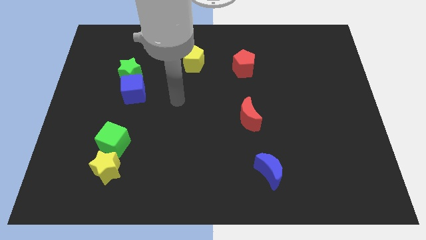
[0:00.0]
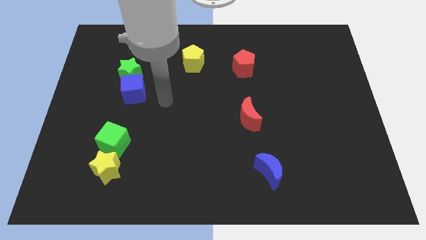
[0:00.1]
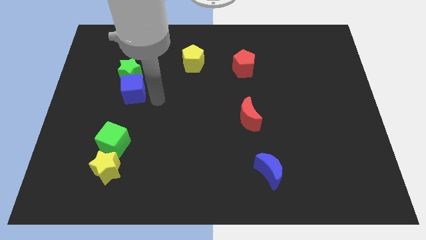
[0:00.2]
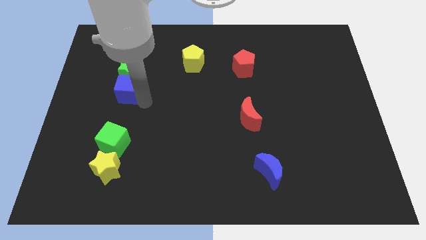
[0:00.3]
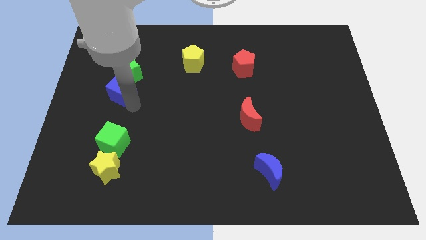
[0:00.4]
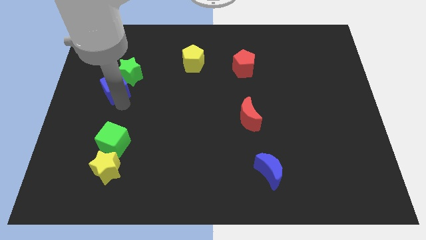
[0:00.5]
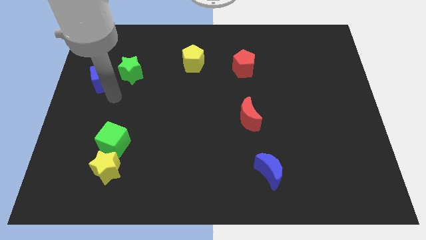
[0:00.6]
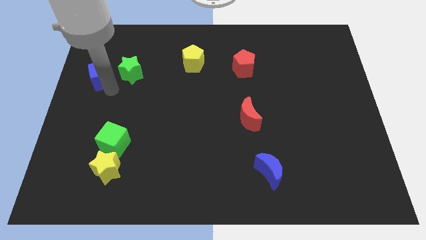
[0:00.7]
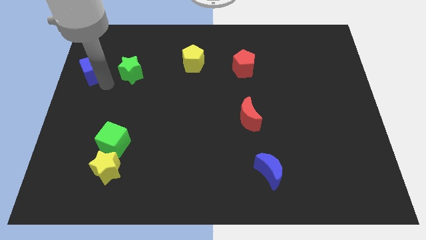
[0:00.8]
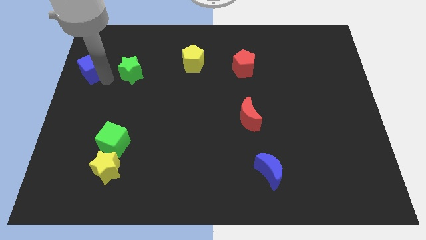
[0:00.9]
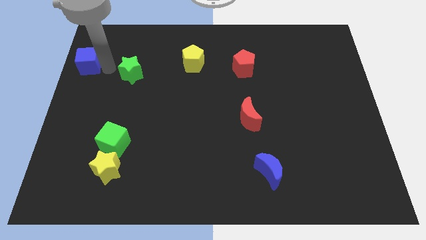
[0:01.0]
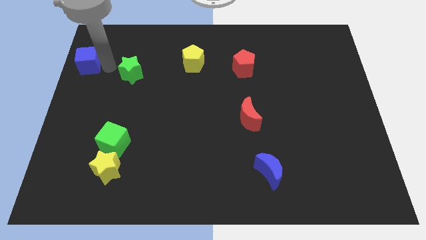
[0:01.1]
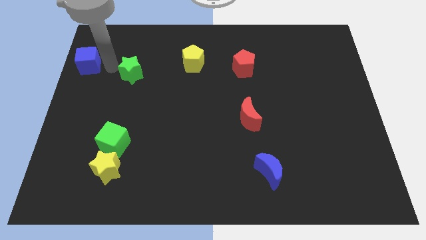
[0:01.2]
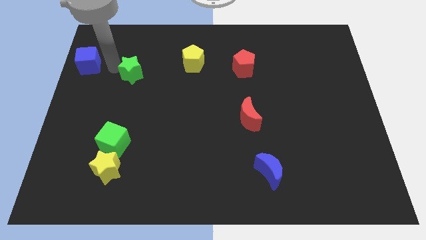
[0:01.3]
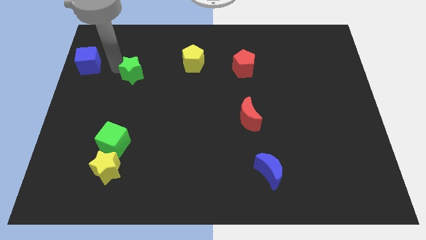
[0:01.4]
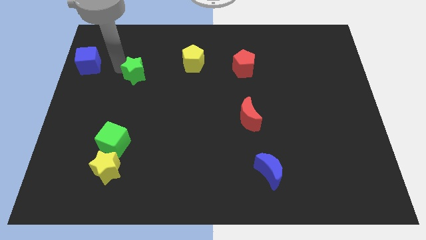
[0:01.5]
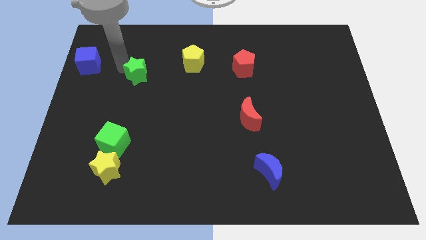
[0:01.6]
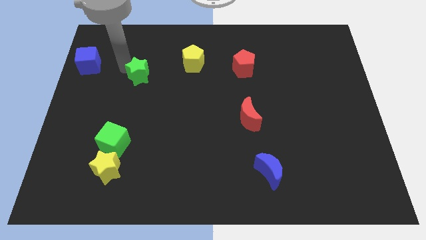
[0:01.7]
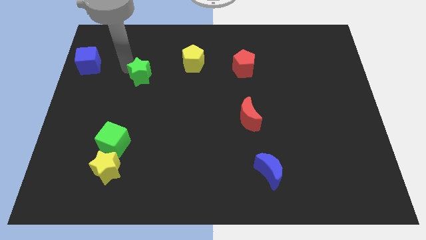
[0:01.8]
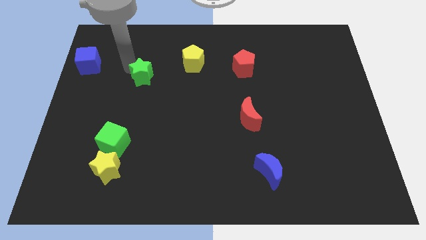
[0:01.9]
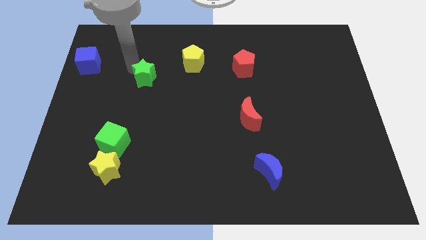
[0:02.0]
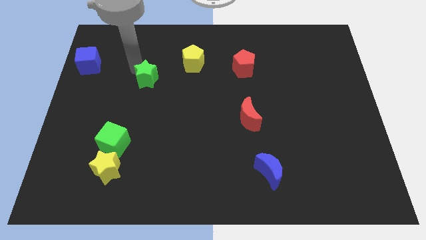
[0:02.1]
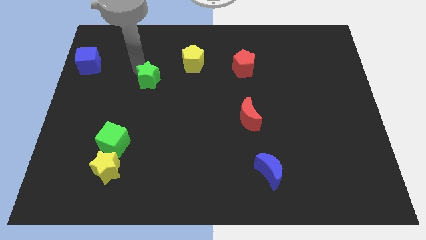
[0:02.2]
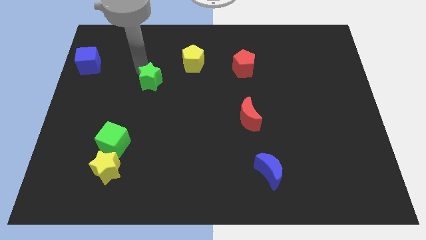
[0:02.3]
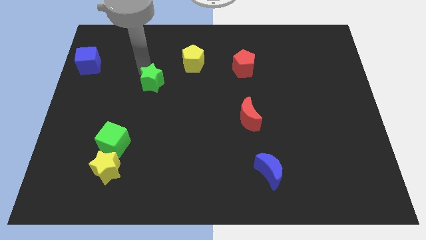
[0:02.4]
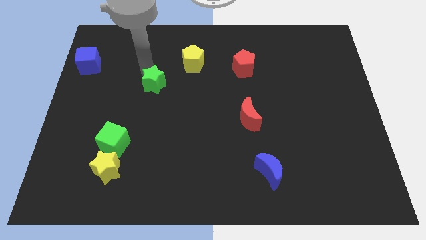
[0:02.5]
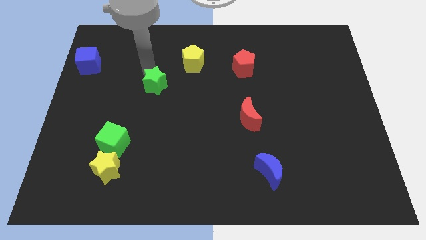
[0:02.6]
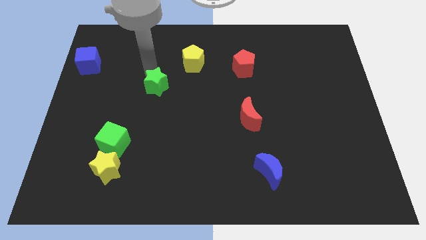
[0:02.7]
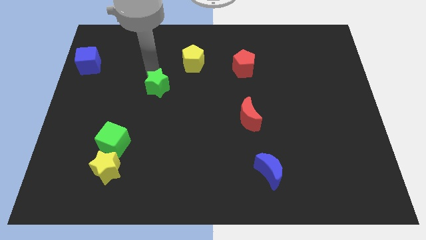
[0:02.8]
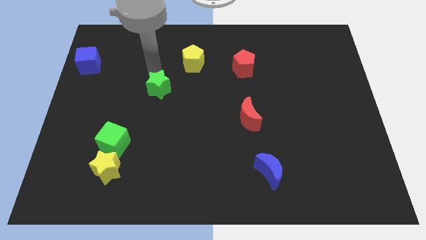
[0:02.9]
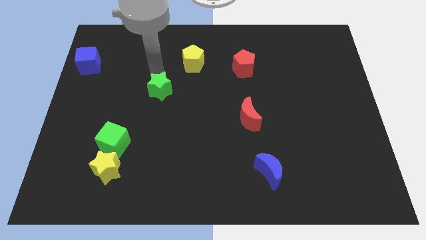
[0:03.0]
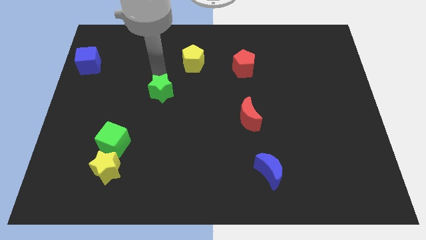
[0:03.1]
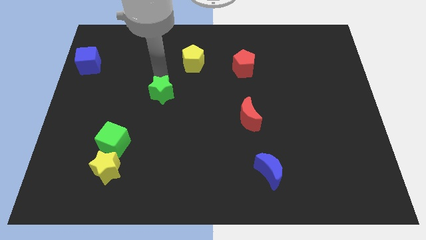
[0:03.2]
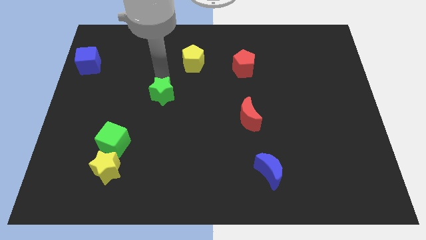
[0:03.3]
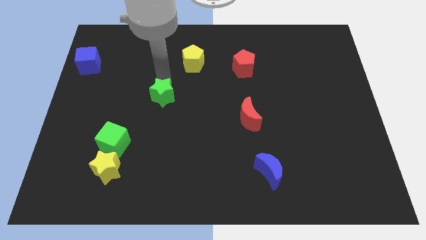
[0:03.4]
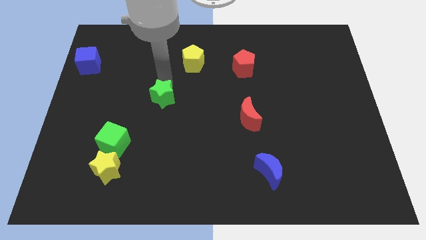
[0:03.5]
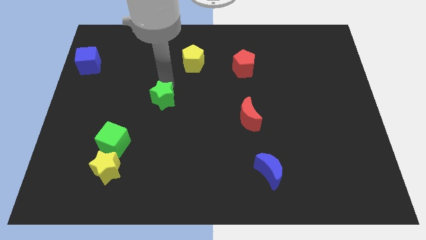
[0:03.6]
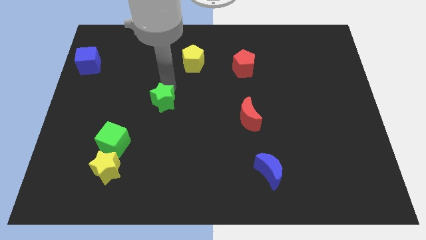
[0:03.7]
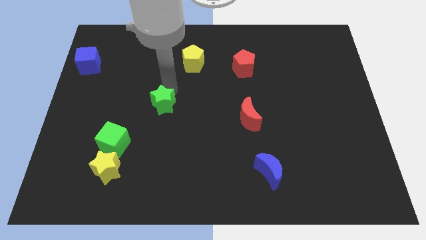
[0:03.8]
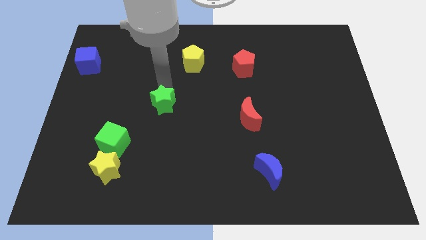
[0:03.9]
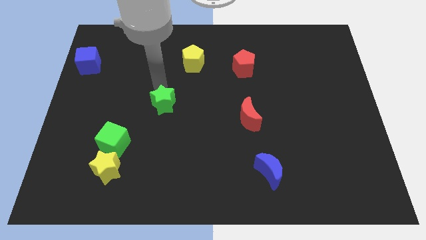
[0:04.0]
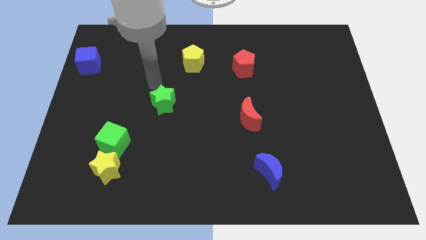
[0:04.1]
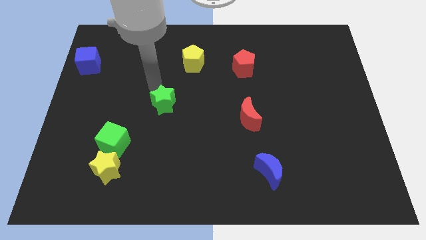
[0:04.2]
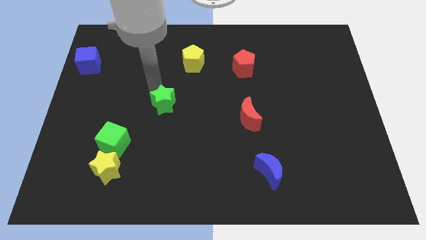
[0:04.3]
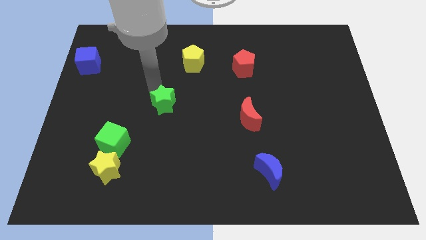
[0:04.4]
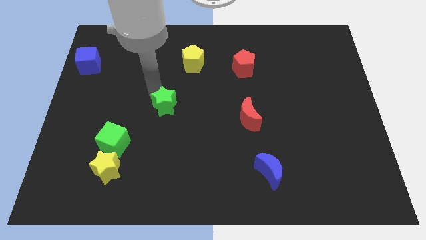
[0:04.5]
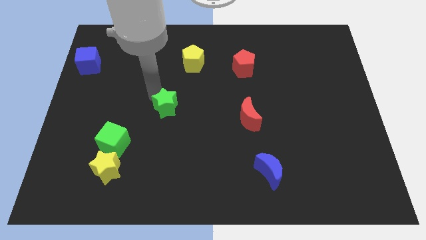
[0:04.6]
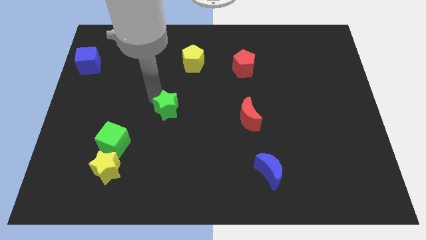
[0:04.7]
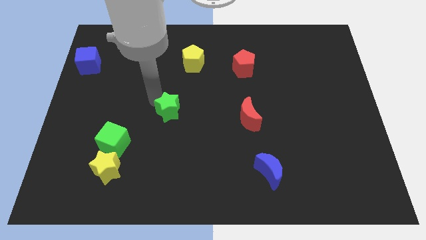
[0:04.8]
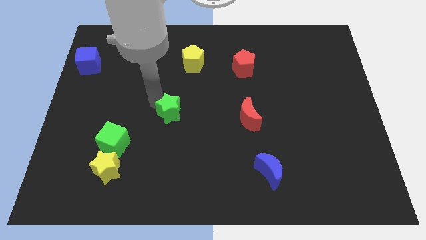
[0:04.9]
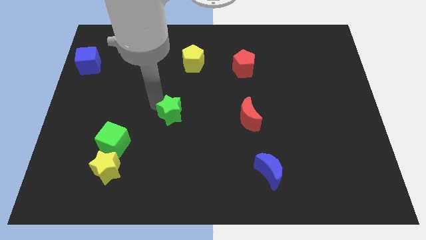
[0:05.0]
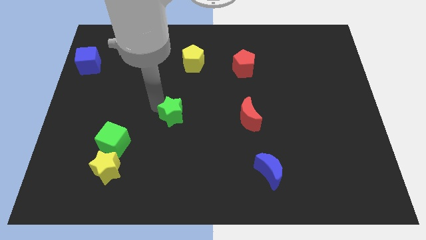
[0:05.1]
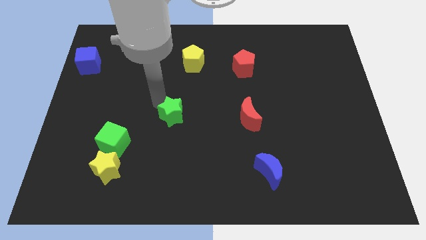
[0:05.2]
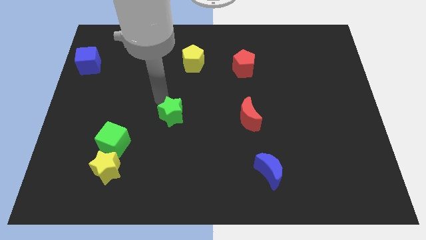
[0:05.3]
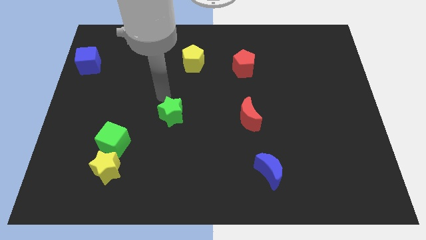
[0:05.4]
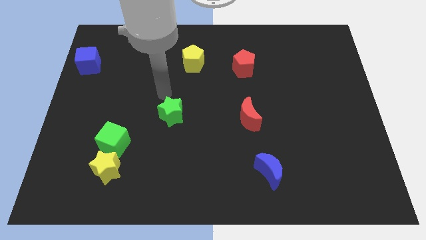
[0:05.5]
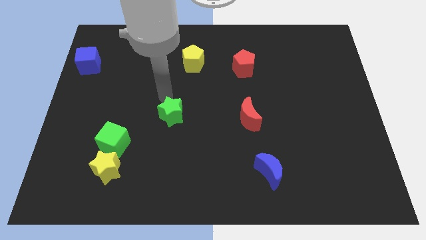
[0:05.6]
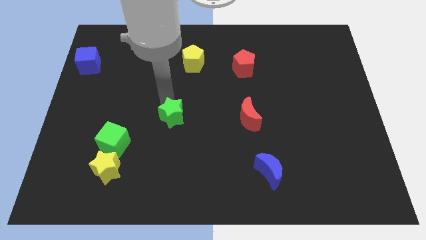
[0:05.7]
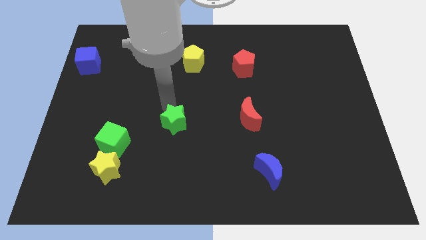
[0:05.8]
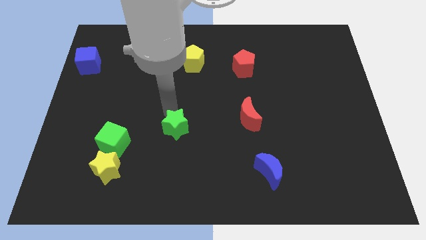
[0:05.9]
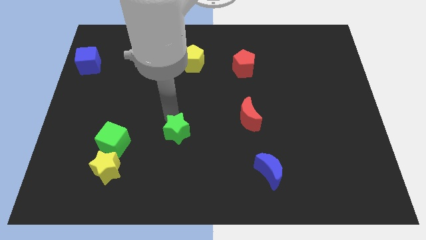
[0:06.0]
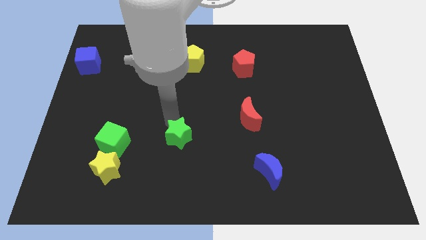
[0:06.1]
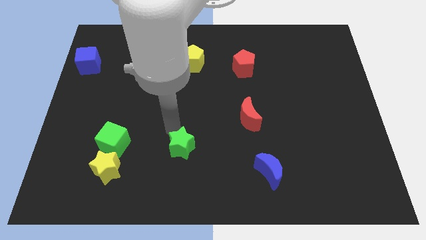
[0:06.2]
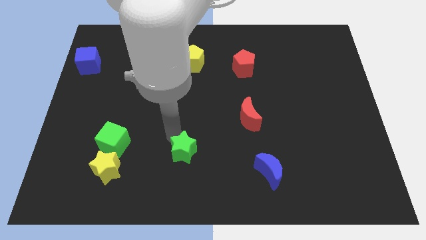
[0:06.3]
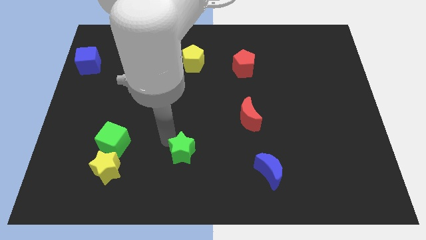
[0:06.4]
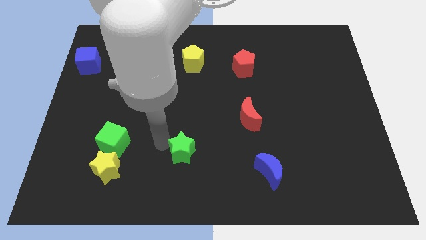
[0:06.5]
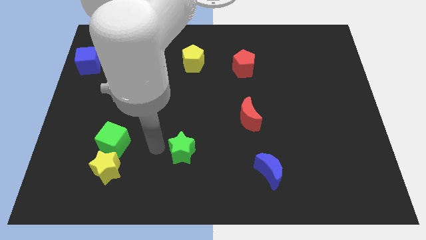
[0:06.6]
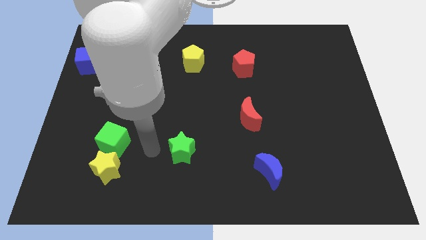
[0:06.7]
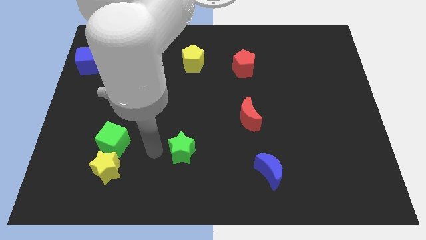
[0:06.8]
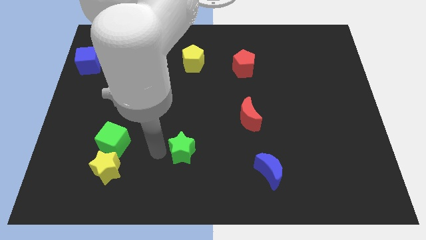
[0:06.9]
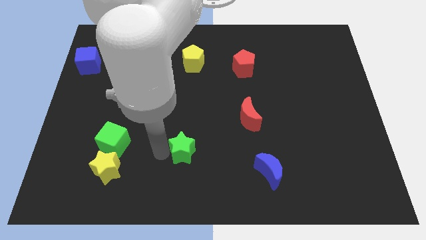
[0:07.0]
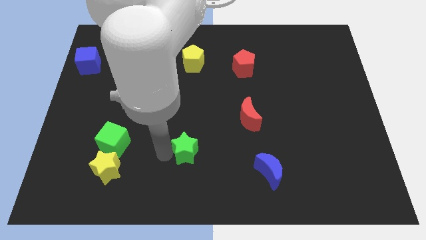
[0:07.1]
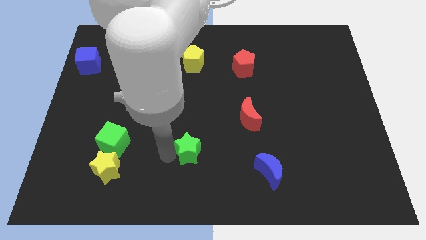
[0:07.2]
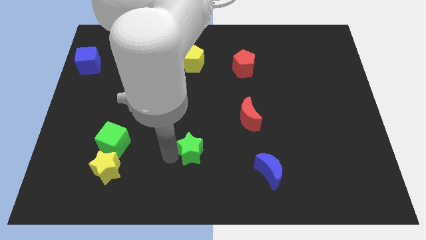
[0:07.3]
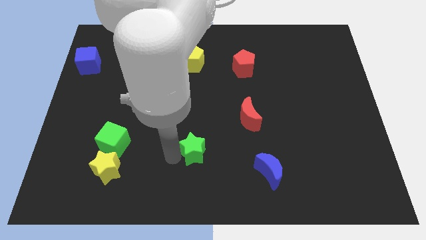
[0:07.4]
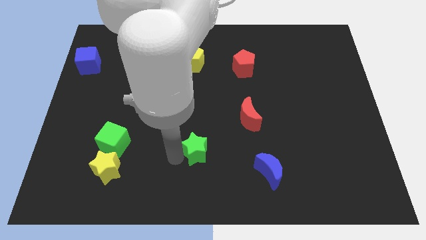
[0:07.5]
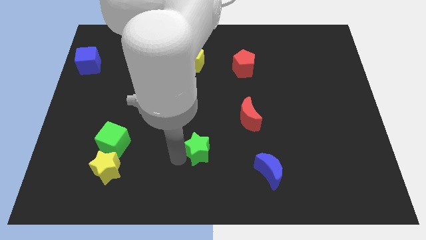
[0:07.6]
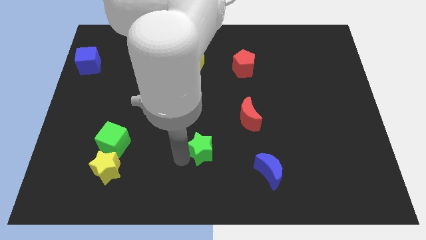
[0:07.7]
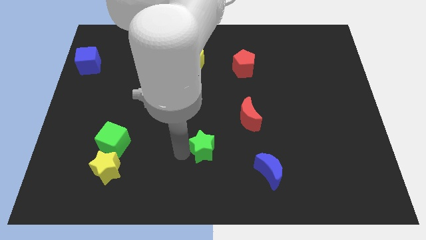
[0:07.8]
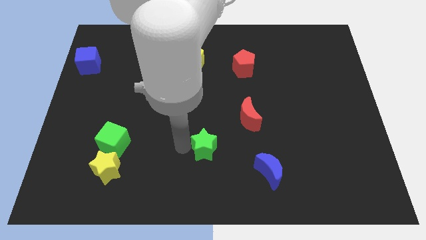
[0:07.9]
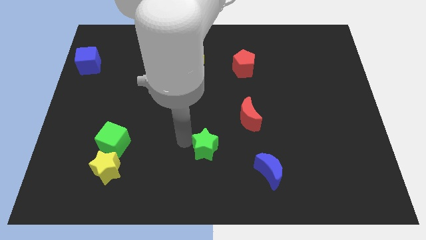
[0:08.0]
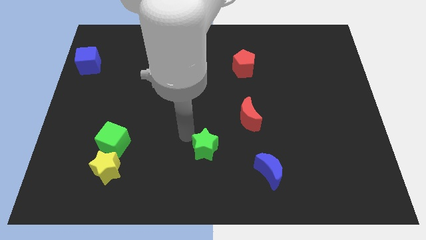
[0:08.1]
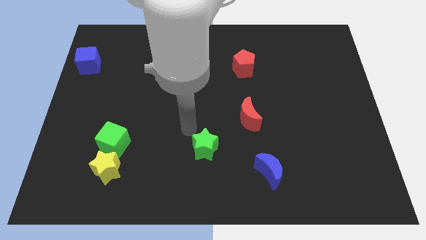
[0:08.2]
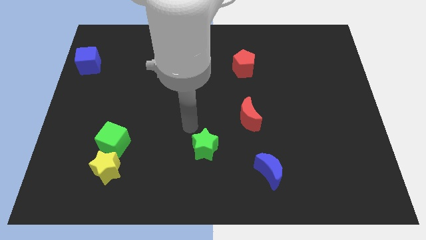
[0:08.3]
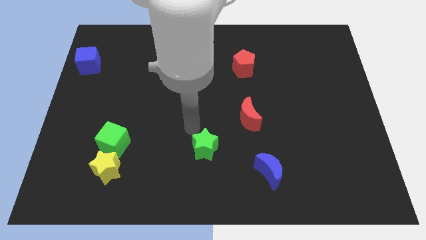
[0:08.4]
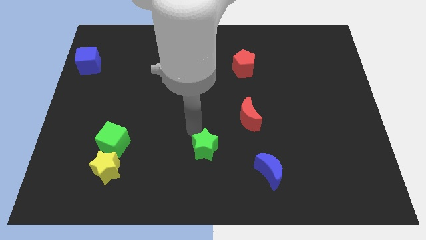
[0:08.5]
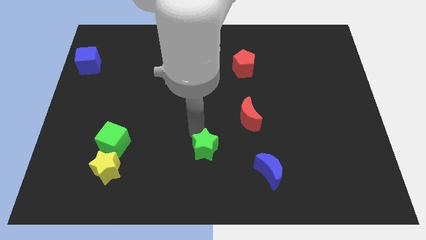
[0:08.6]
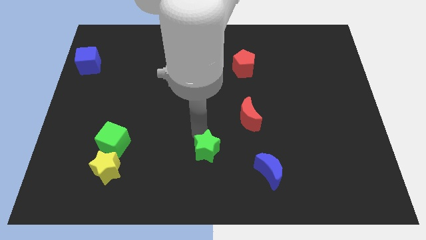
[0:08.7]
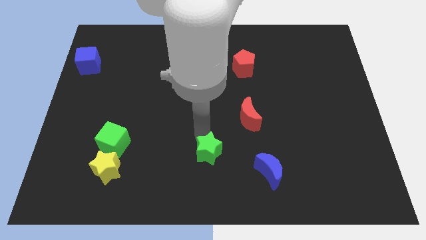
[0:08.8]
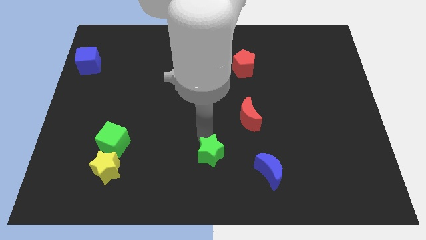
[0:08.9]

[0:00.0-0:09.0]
move the green star to the left side of the blue moon
